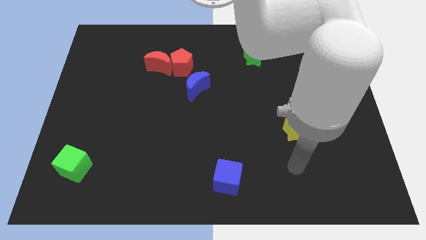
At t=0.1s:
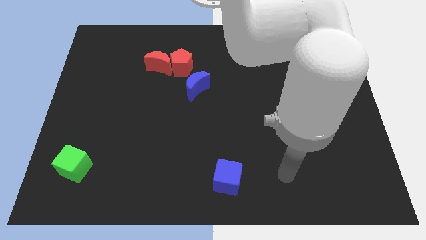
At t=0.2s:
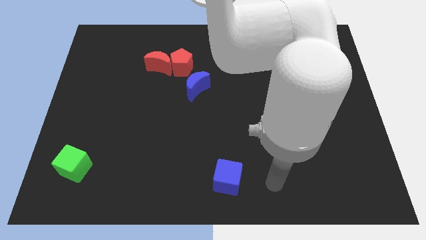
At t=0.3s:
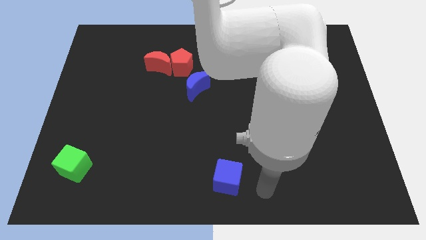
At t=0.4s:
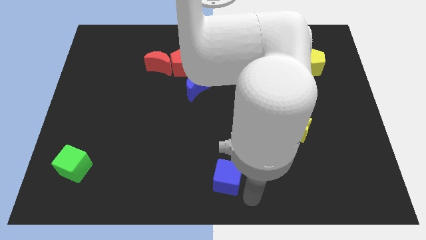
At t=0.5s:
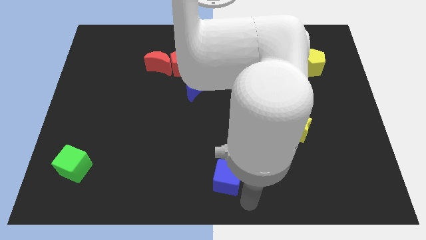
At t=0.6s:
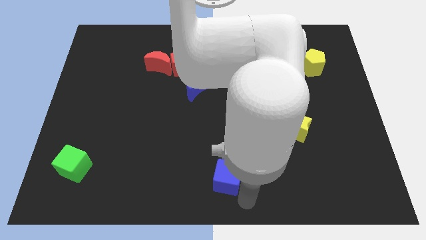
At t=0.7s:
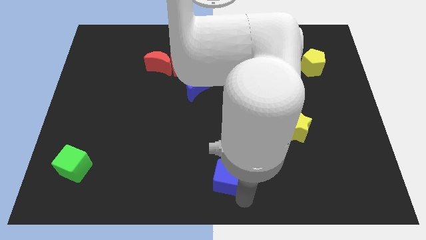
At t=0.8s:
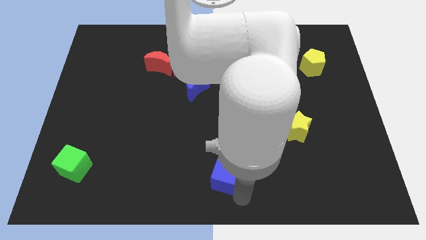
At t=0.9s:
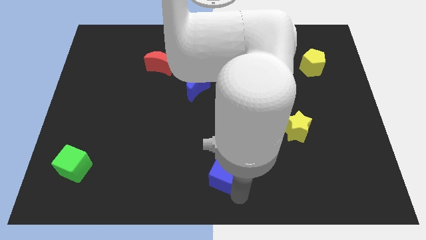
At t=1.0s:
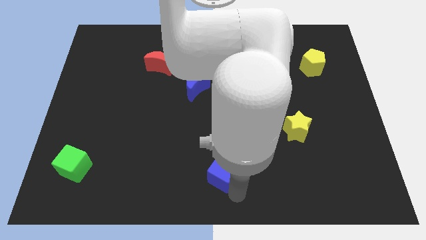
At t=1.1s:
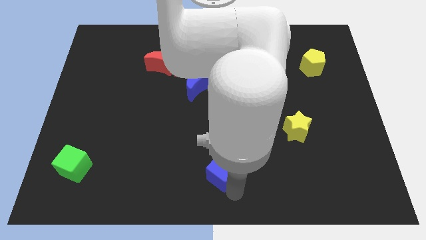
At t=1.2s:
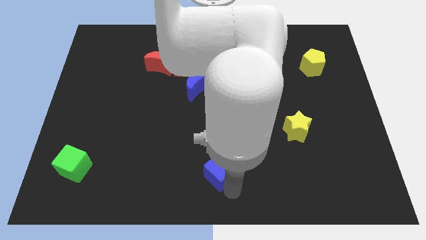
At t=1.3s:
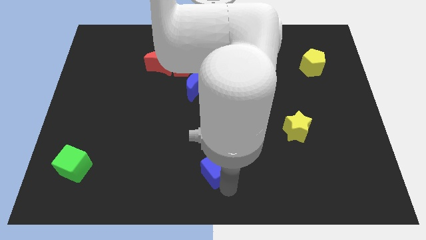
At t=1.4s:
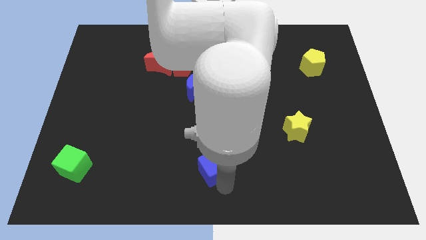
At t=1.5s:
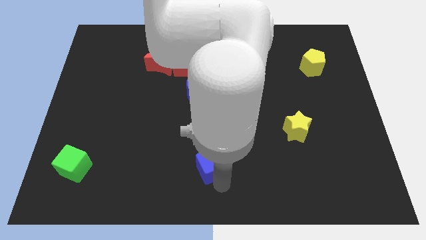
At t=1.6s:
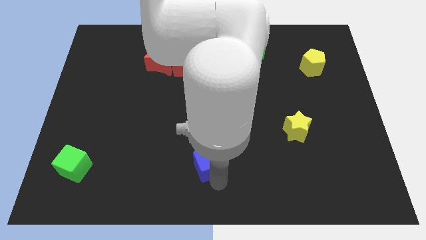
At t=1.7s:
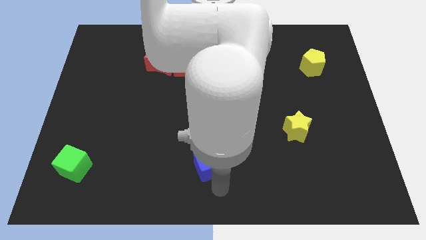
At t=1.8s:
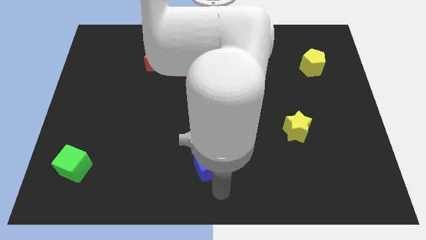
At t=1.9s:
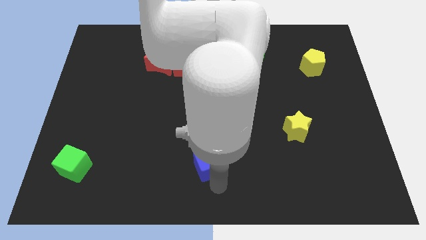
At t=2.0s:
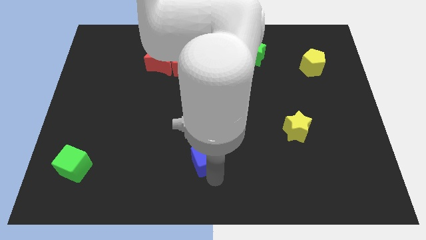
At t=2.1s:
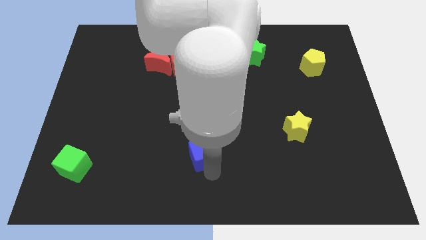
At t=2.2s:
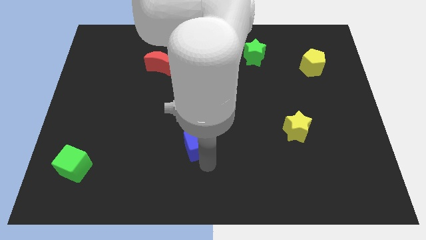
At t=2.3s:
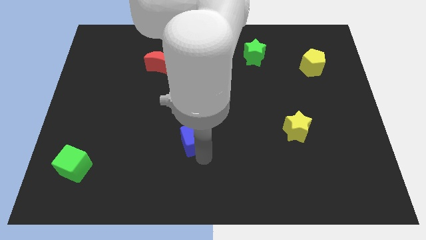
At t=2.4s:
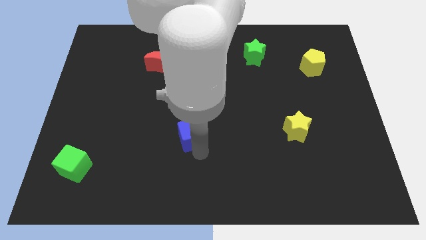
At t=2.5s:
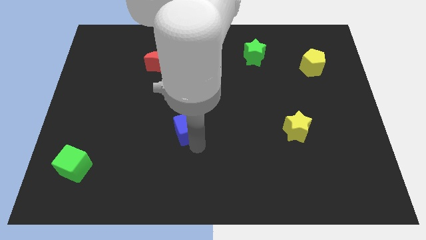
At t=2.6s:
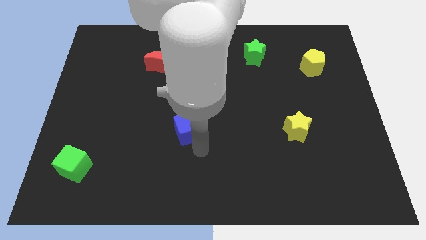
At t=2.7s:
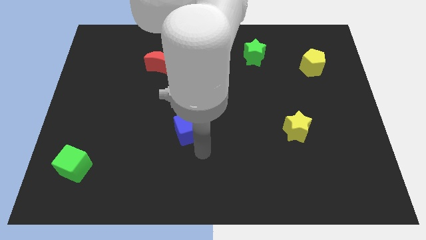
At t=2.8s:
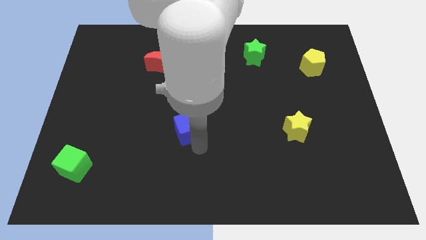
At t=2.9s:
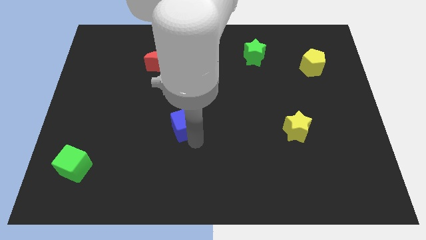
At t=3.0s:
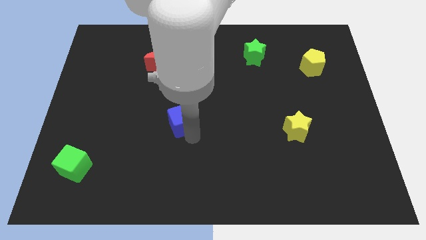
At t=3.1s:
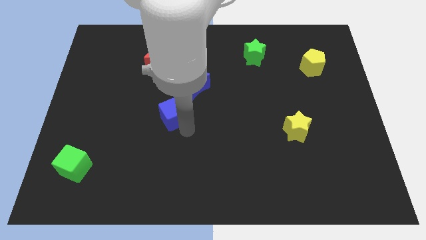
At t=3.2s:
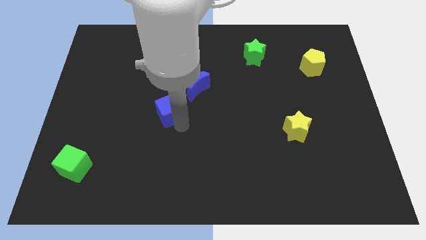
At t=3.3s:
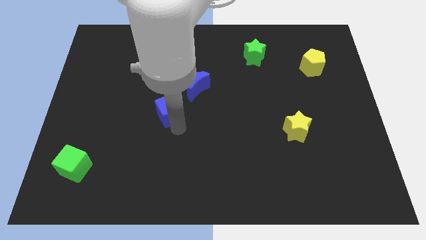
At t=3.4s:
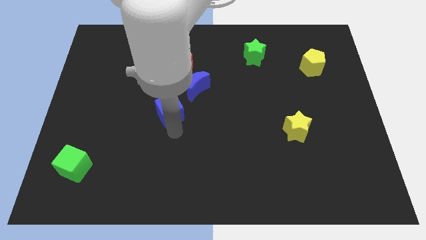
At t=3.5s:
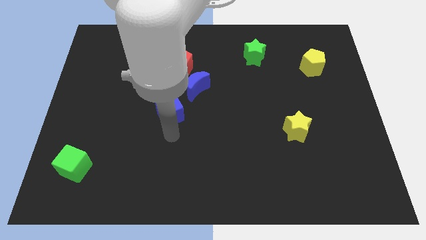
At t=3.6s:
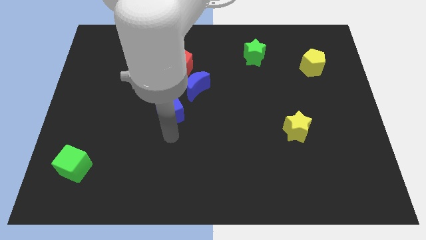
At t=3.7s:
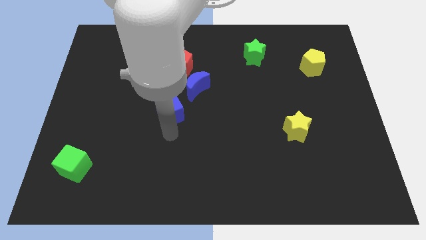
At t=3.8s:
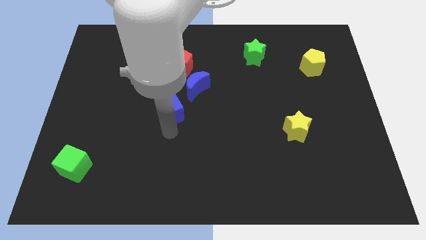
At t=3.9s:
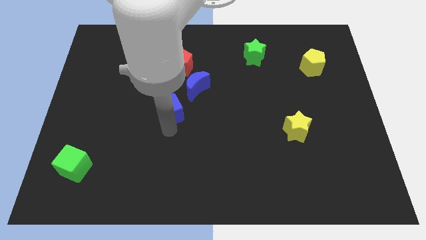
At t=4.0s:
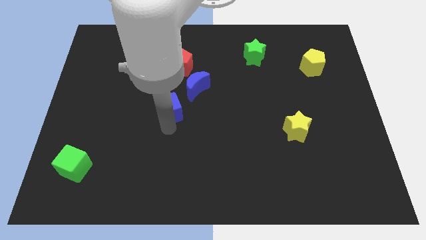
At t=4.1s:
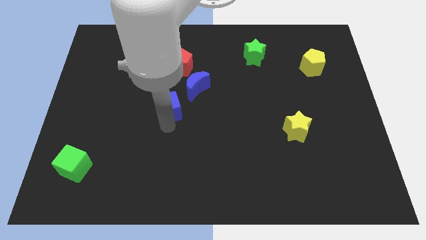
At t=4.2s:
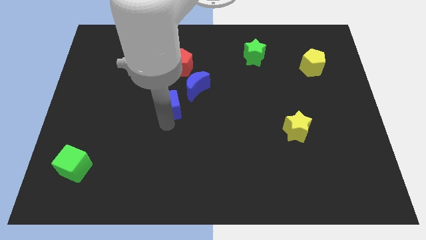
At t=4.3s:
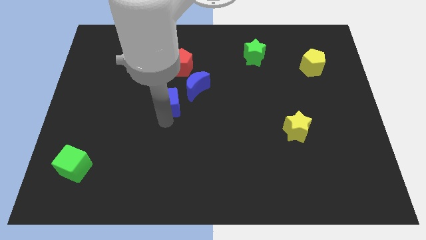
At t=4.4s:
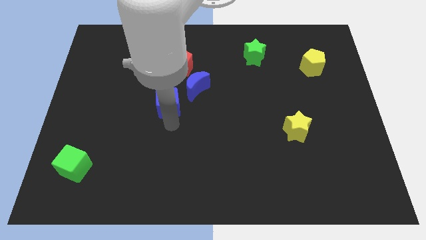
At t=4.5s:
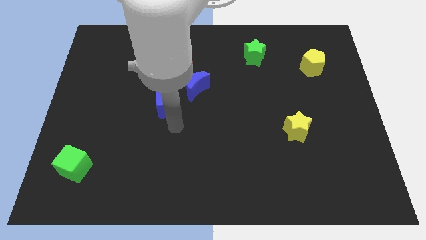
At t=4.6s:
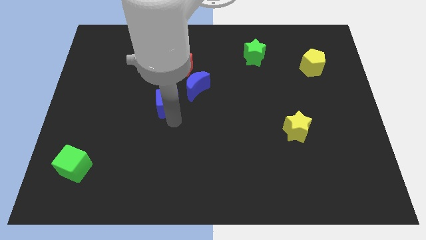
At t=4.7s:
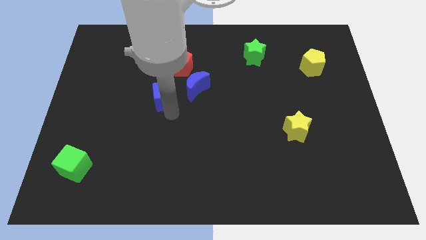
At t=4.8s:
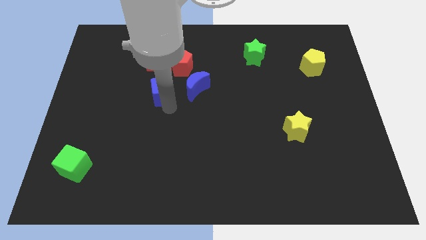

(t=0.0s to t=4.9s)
put the blue cube diagonally down and to the left of the red pentagon

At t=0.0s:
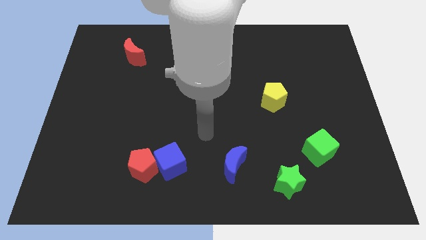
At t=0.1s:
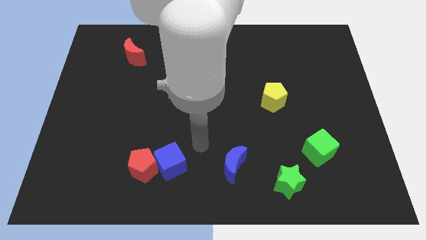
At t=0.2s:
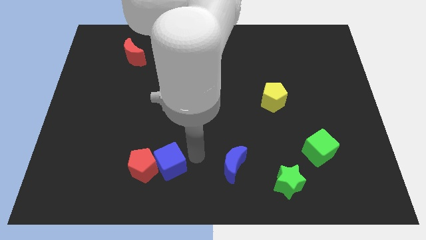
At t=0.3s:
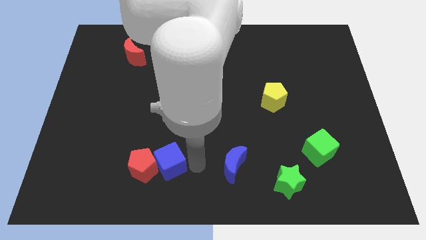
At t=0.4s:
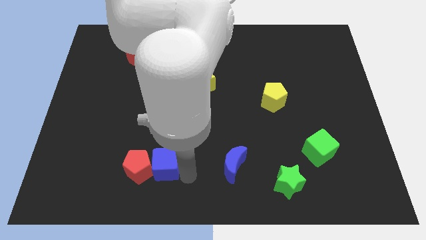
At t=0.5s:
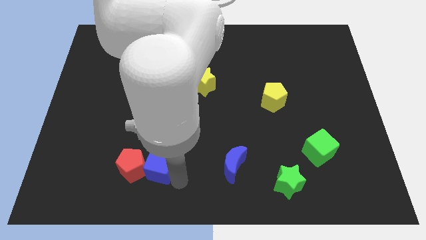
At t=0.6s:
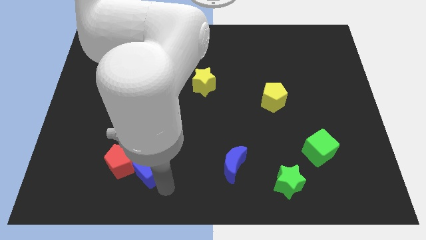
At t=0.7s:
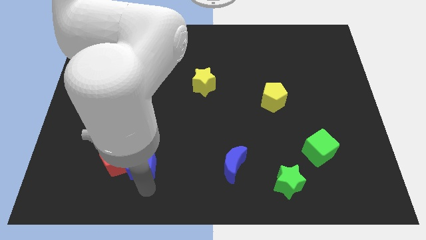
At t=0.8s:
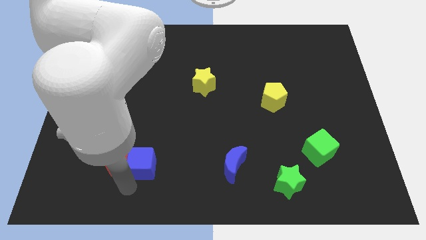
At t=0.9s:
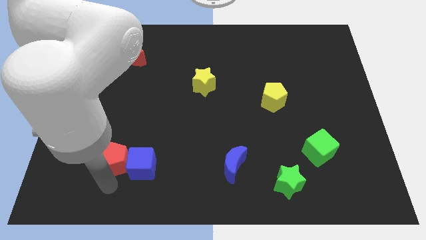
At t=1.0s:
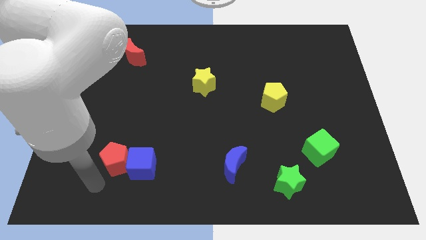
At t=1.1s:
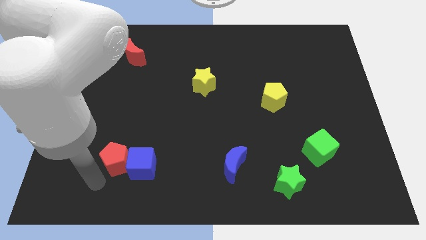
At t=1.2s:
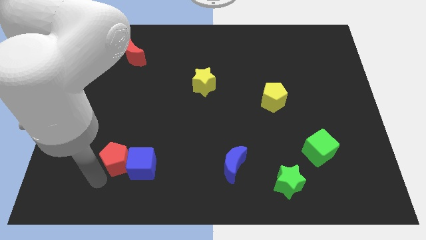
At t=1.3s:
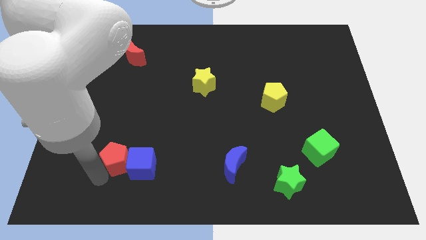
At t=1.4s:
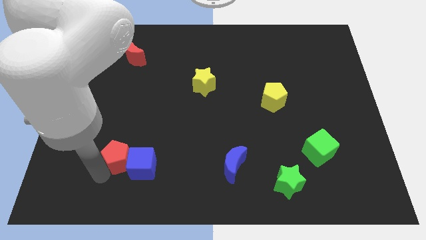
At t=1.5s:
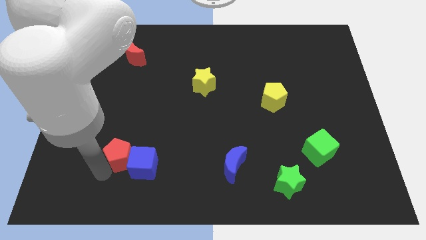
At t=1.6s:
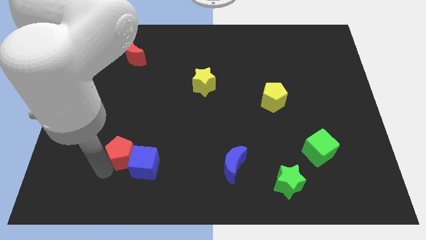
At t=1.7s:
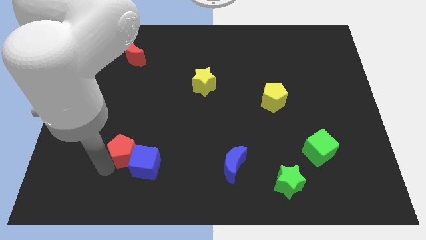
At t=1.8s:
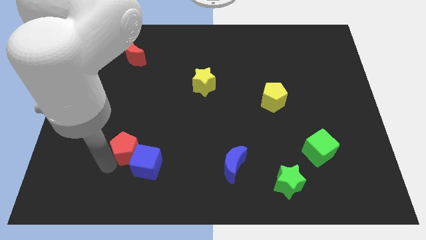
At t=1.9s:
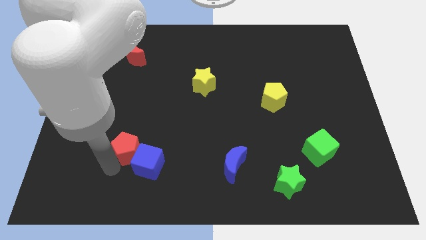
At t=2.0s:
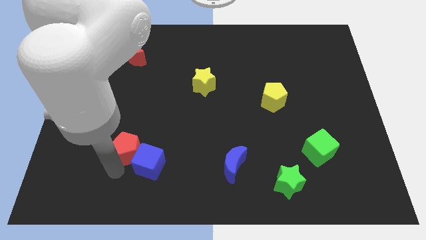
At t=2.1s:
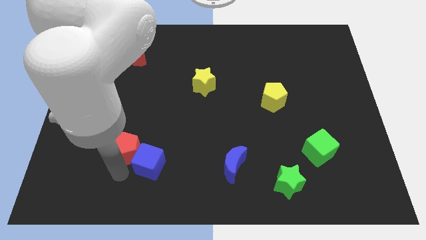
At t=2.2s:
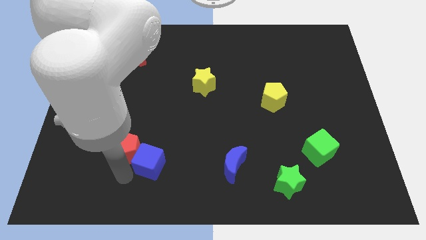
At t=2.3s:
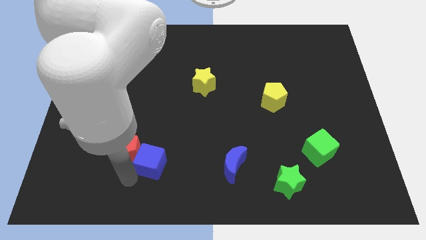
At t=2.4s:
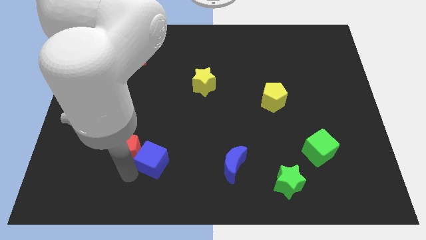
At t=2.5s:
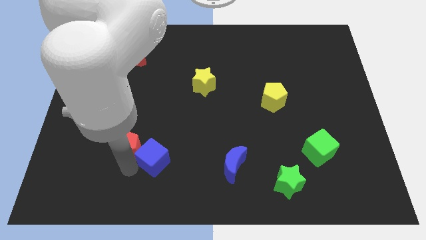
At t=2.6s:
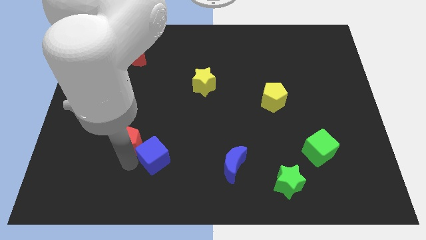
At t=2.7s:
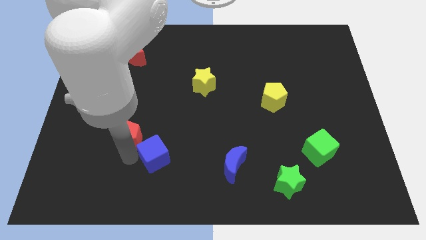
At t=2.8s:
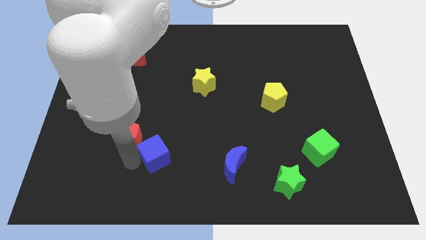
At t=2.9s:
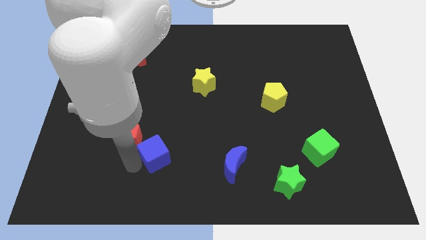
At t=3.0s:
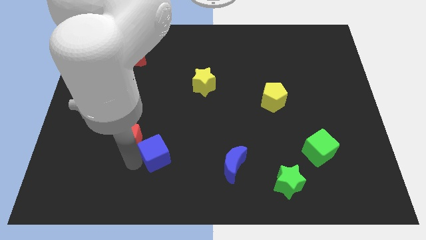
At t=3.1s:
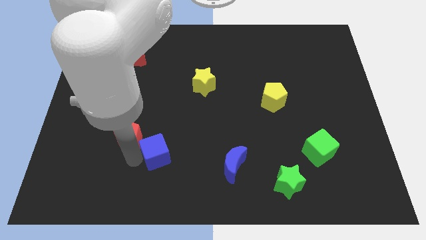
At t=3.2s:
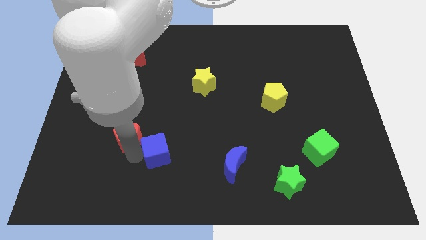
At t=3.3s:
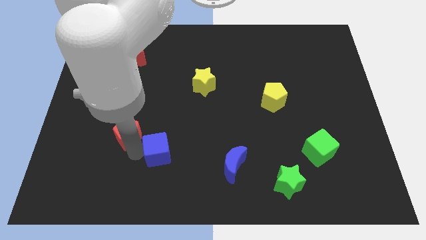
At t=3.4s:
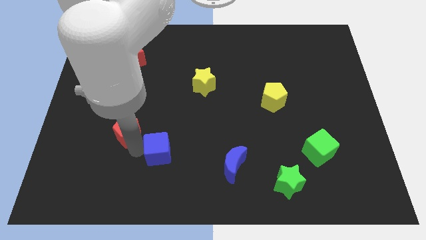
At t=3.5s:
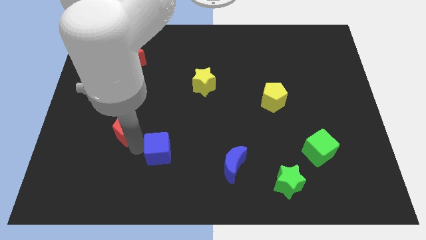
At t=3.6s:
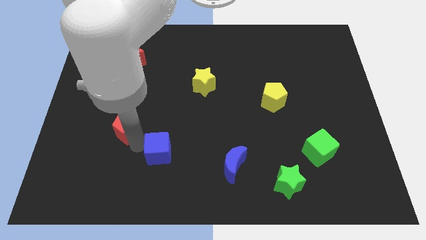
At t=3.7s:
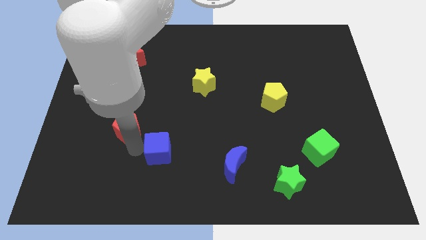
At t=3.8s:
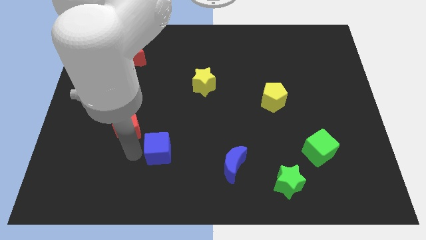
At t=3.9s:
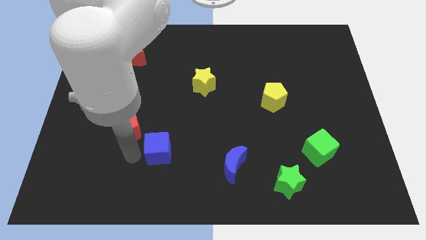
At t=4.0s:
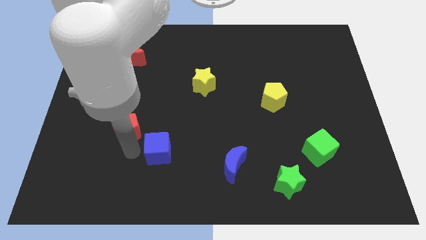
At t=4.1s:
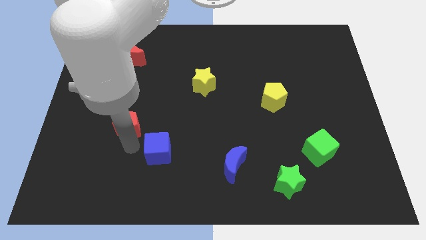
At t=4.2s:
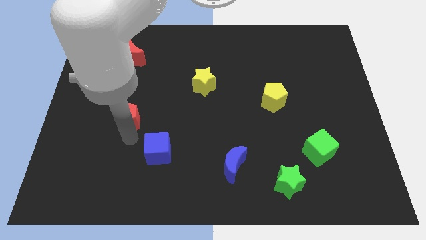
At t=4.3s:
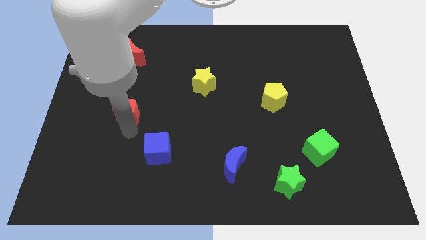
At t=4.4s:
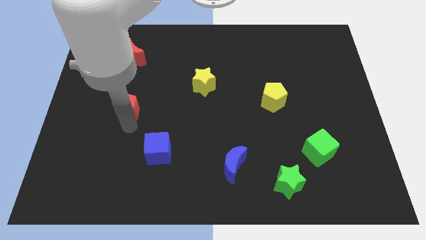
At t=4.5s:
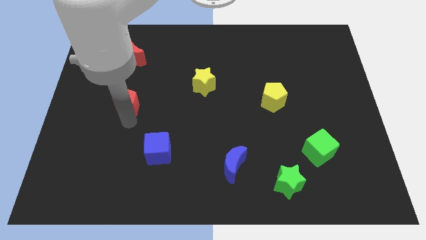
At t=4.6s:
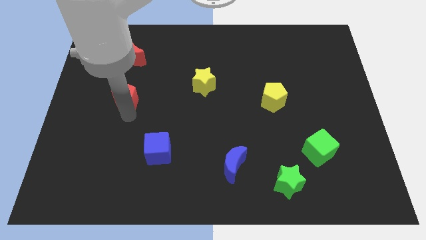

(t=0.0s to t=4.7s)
push the red pentagon below the red moon
